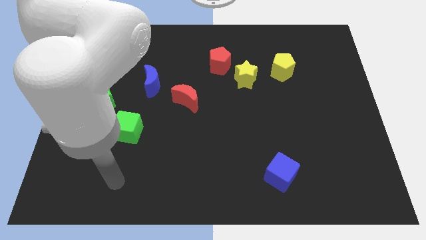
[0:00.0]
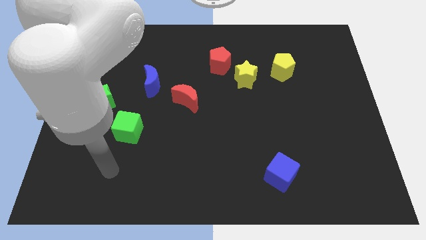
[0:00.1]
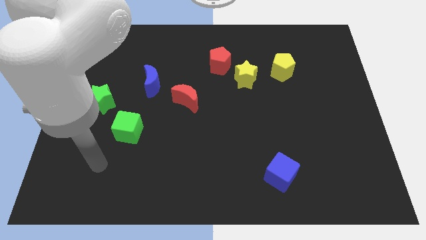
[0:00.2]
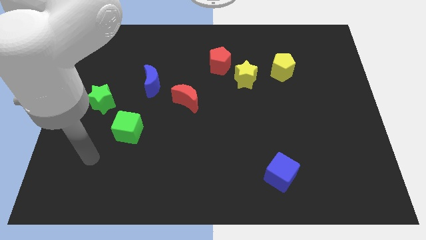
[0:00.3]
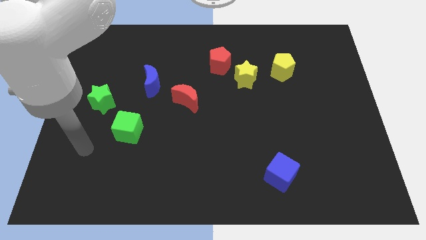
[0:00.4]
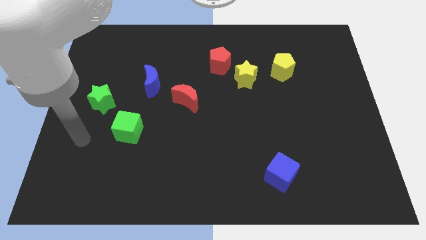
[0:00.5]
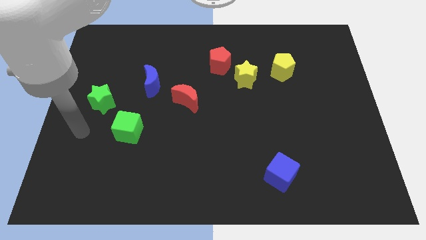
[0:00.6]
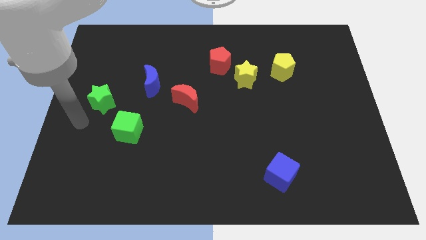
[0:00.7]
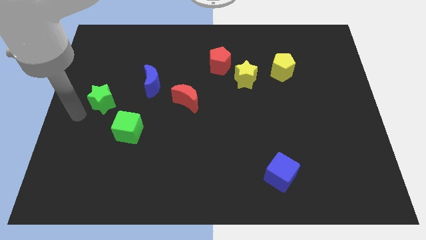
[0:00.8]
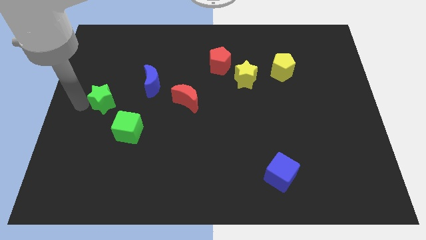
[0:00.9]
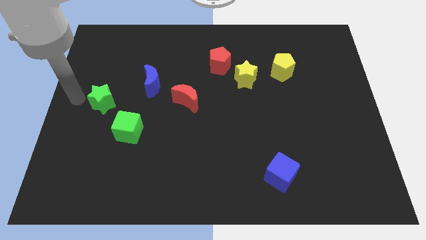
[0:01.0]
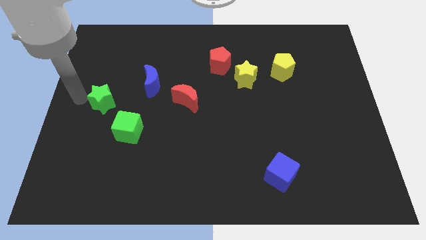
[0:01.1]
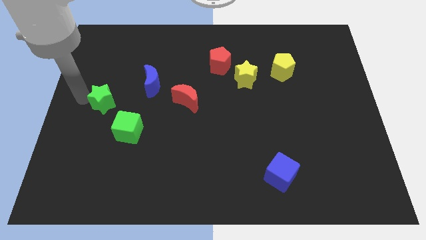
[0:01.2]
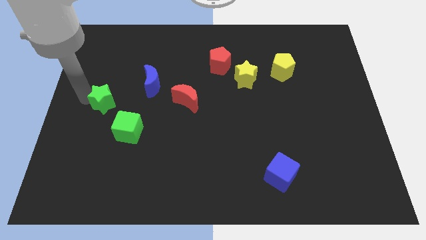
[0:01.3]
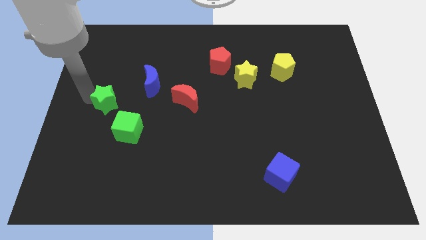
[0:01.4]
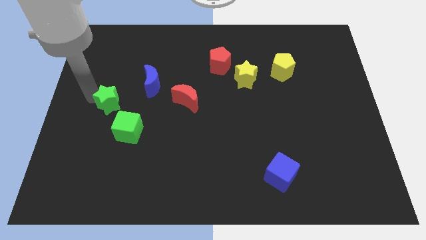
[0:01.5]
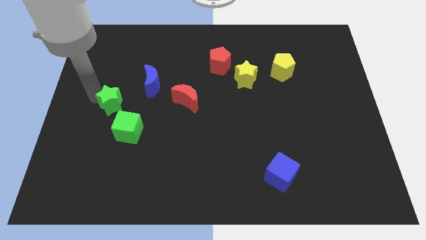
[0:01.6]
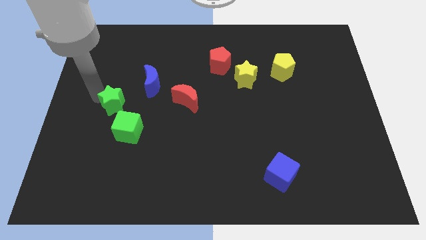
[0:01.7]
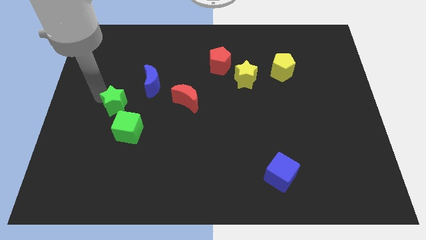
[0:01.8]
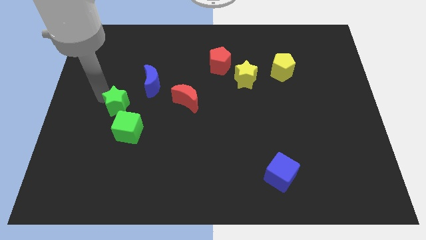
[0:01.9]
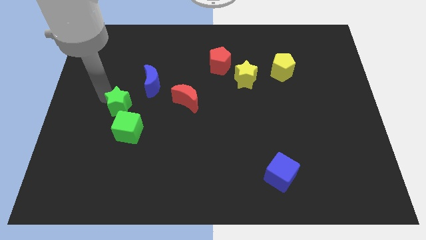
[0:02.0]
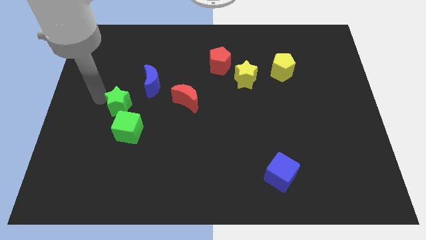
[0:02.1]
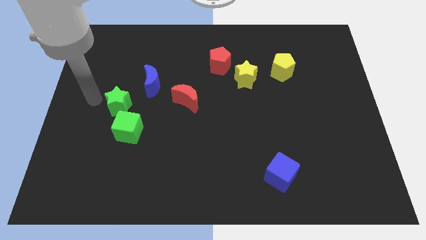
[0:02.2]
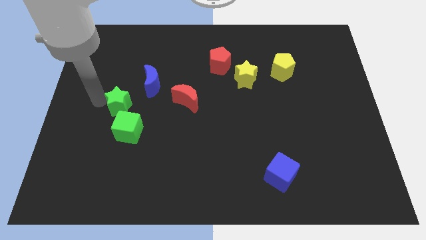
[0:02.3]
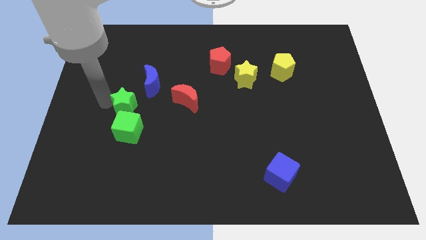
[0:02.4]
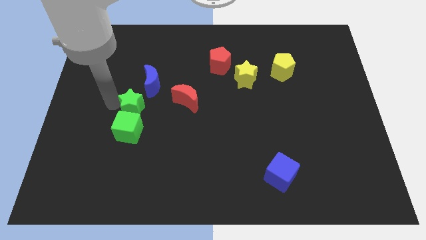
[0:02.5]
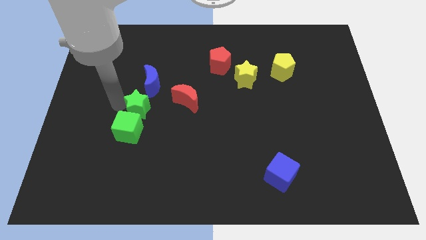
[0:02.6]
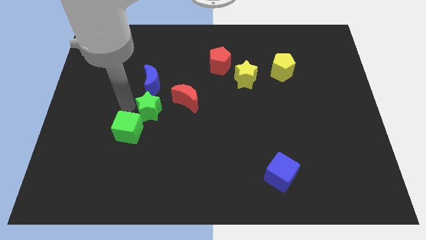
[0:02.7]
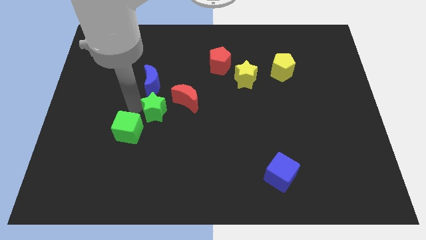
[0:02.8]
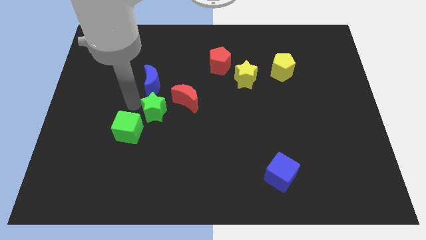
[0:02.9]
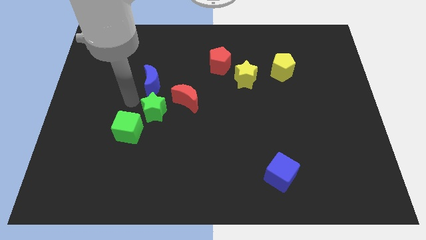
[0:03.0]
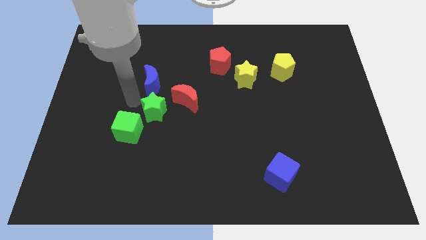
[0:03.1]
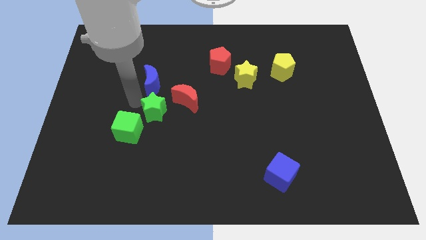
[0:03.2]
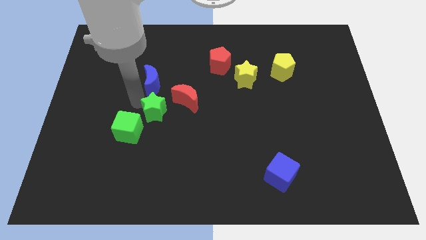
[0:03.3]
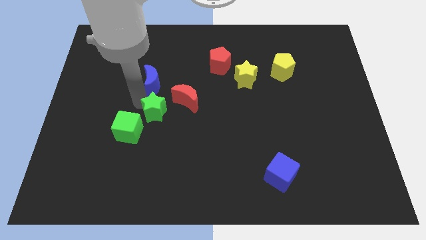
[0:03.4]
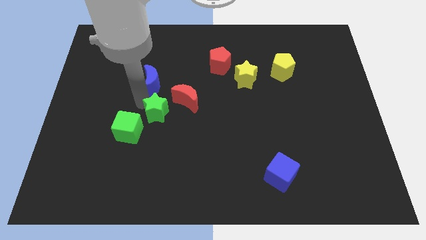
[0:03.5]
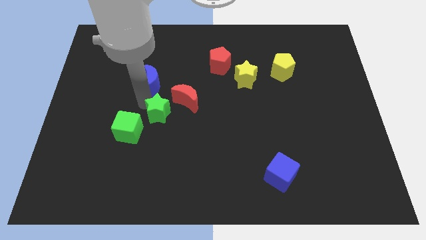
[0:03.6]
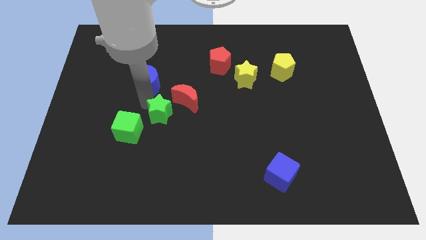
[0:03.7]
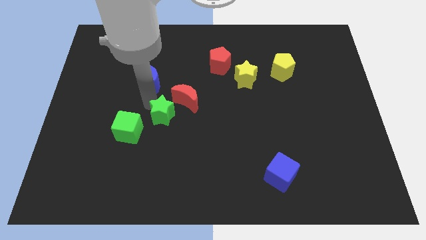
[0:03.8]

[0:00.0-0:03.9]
move the green star to the middle of the board

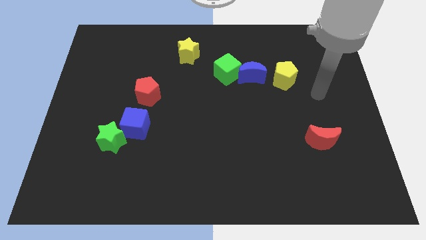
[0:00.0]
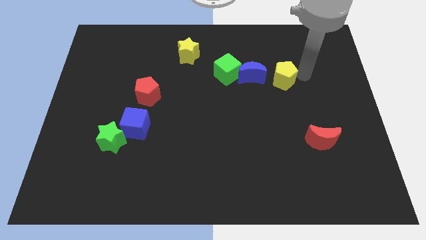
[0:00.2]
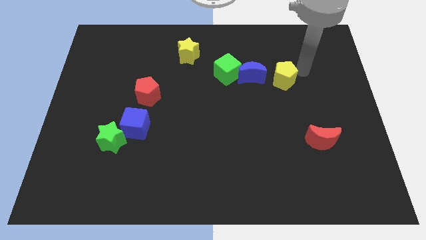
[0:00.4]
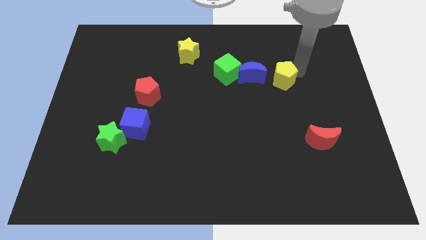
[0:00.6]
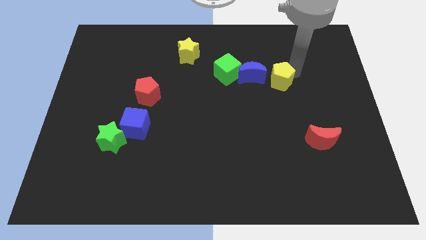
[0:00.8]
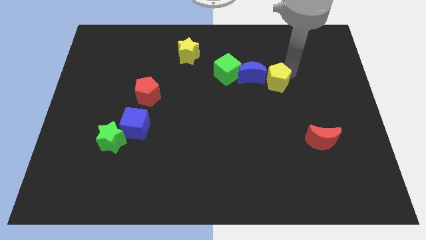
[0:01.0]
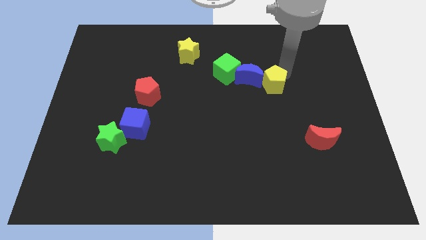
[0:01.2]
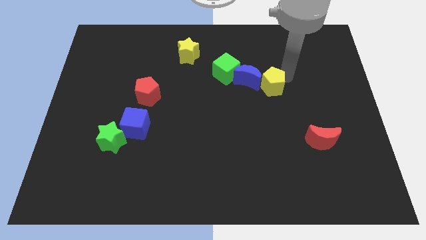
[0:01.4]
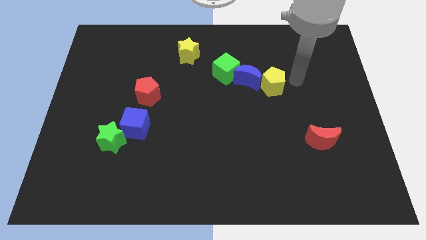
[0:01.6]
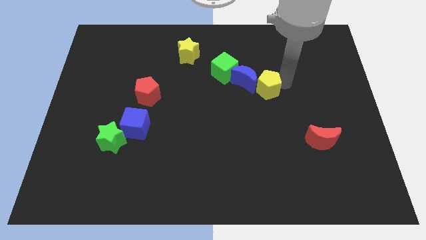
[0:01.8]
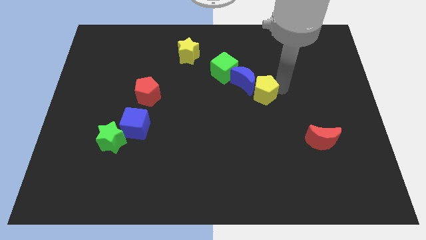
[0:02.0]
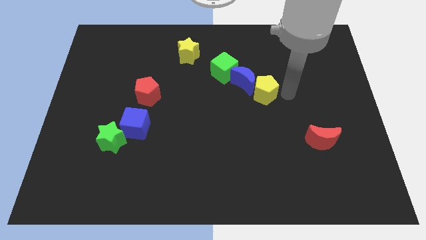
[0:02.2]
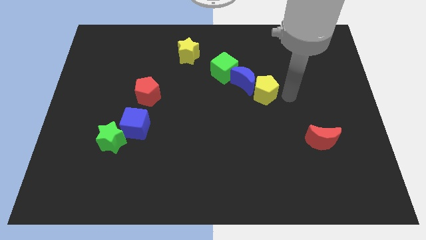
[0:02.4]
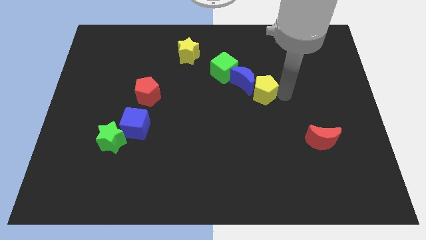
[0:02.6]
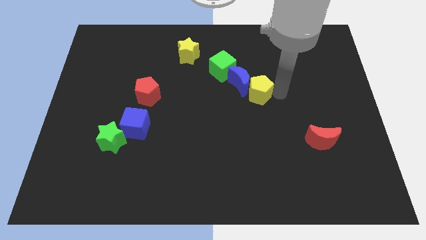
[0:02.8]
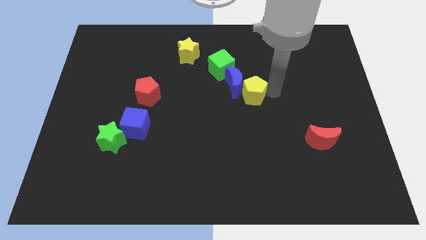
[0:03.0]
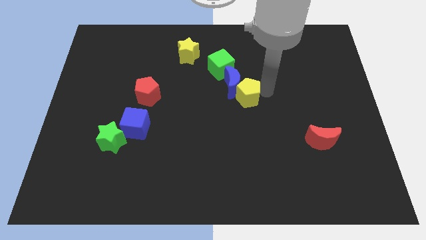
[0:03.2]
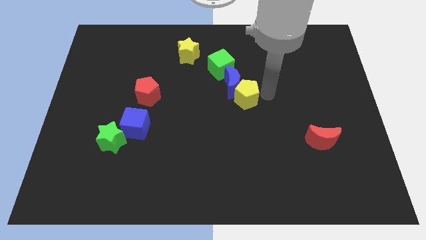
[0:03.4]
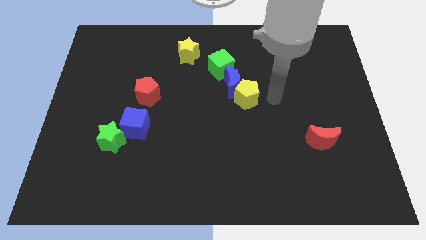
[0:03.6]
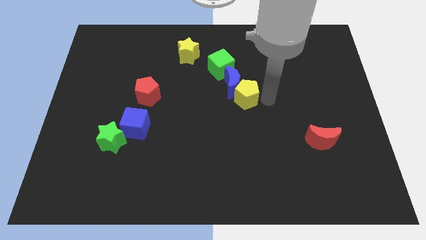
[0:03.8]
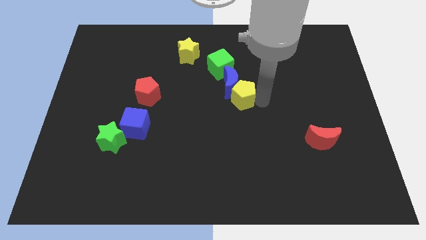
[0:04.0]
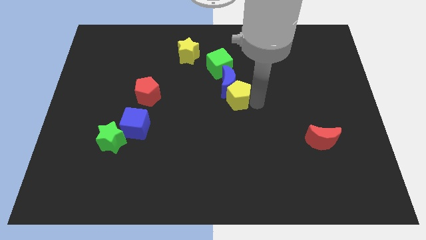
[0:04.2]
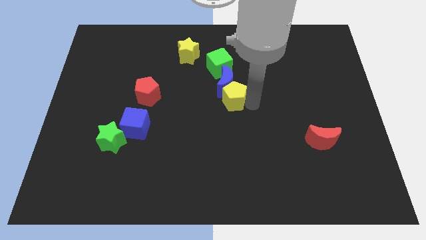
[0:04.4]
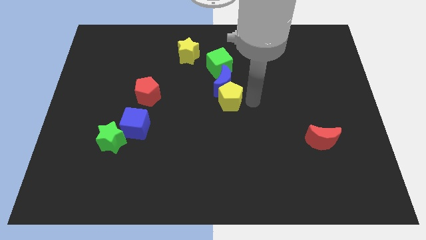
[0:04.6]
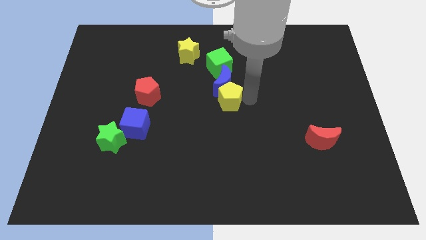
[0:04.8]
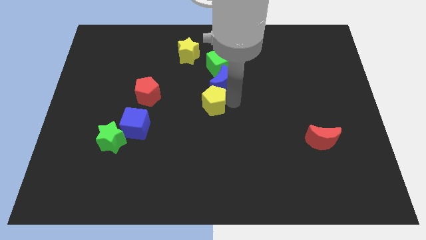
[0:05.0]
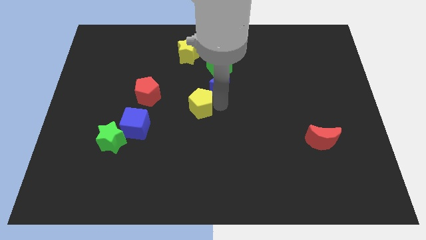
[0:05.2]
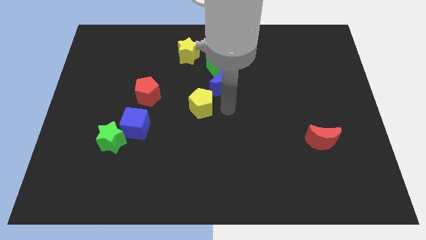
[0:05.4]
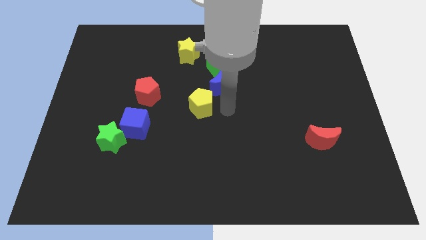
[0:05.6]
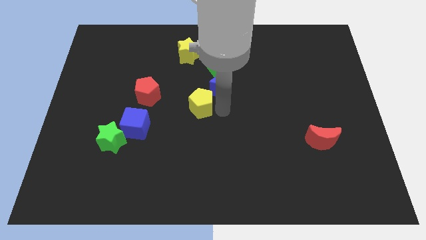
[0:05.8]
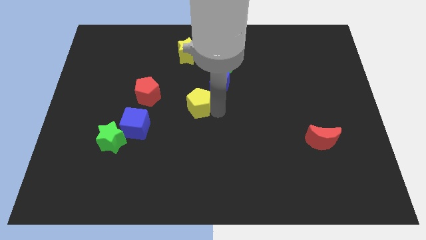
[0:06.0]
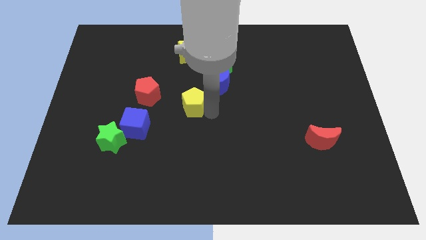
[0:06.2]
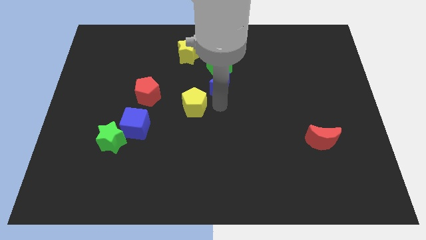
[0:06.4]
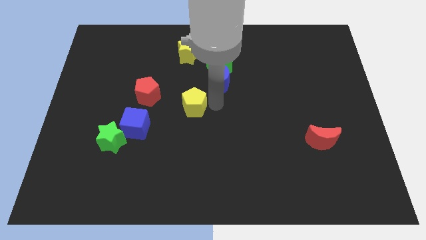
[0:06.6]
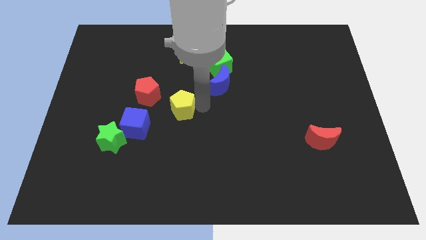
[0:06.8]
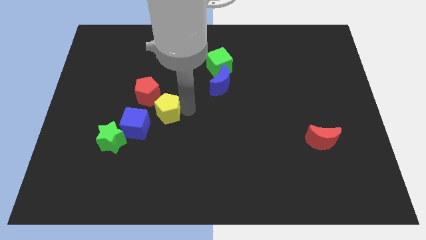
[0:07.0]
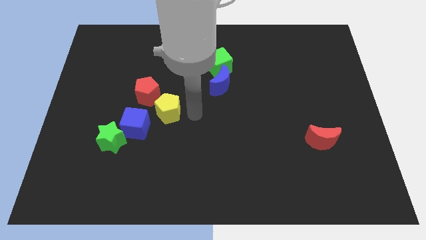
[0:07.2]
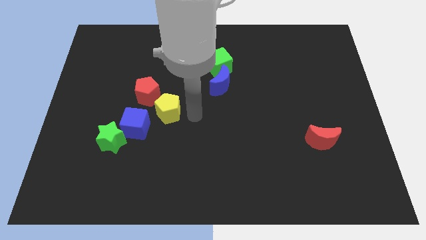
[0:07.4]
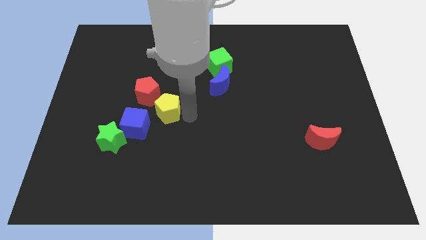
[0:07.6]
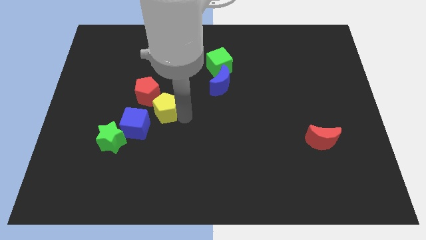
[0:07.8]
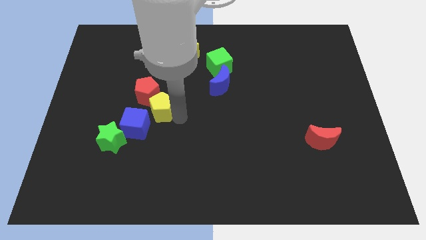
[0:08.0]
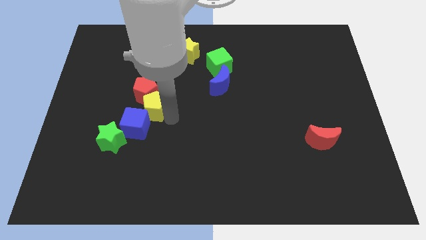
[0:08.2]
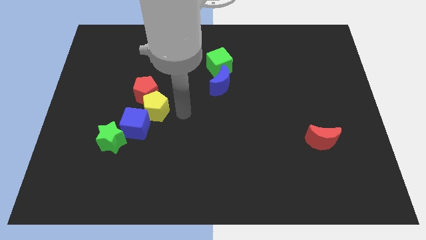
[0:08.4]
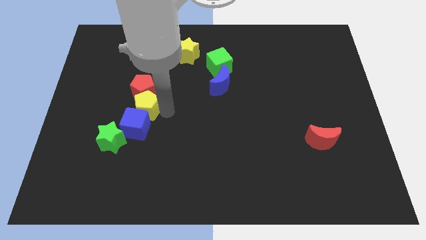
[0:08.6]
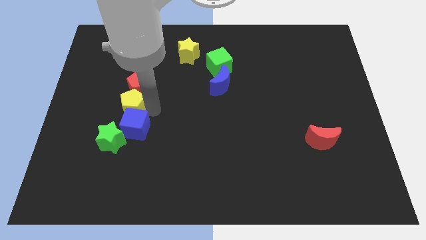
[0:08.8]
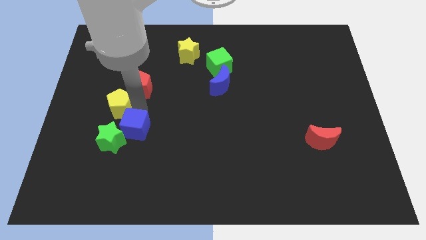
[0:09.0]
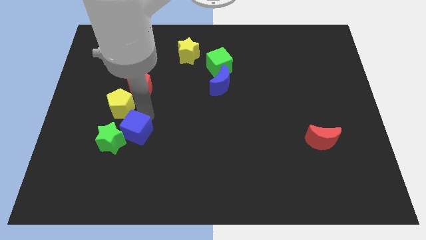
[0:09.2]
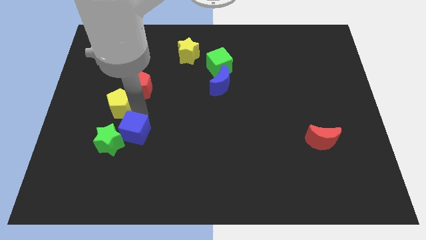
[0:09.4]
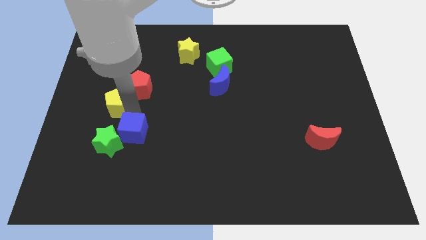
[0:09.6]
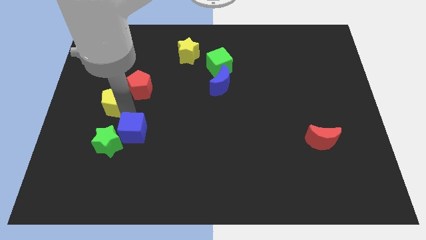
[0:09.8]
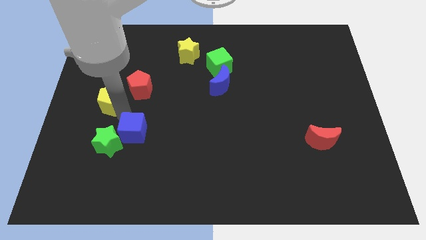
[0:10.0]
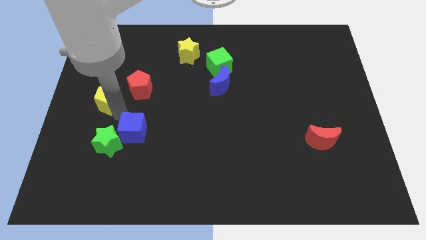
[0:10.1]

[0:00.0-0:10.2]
slide the yellow pentagon to the left side of the board
